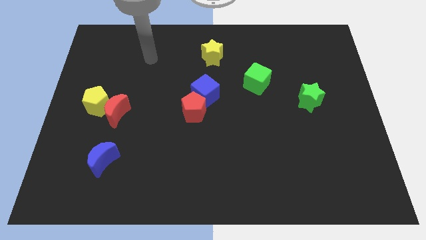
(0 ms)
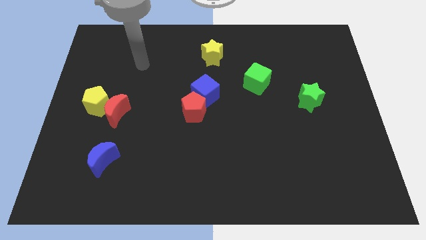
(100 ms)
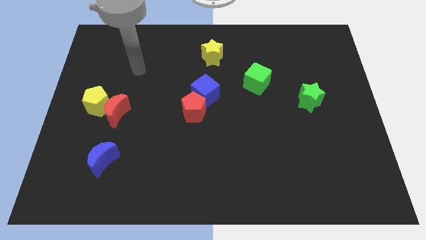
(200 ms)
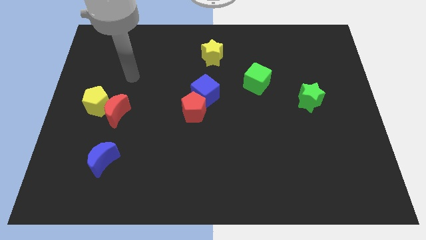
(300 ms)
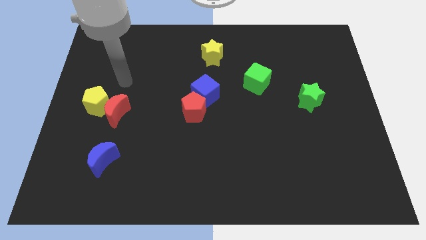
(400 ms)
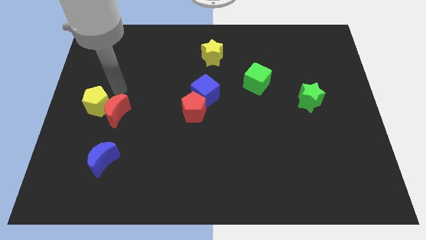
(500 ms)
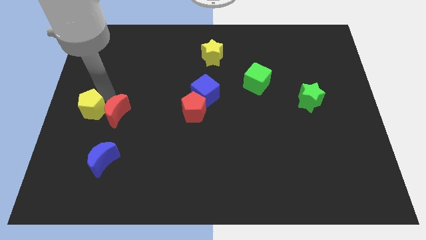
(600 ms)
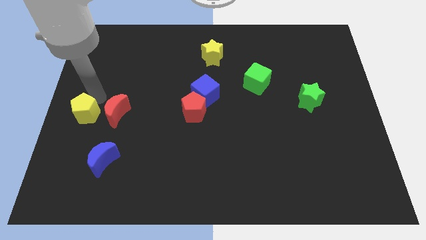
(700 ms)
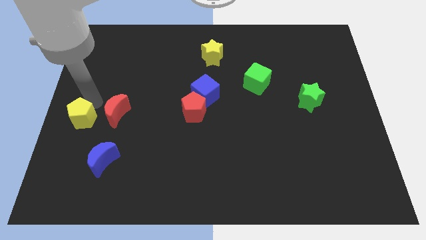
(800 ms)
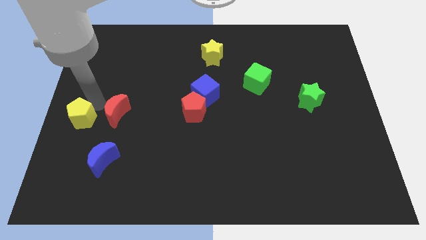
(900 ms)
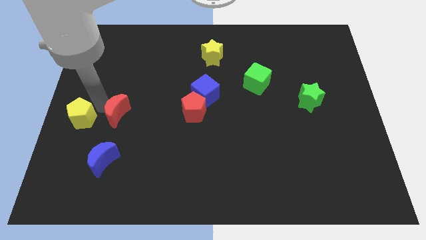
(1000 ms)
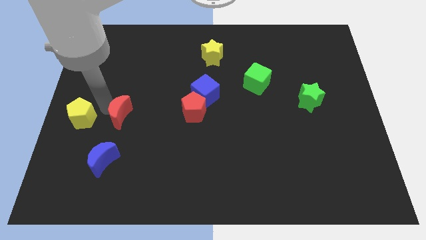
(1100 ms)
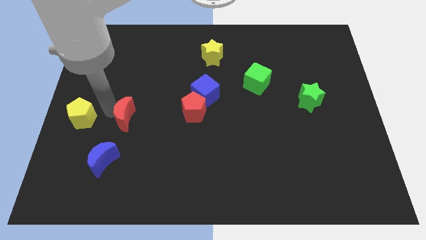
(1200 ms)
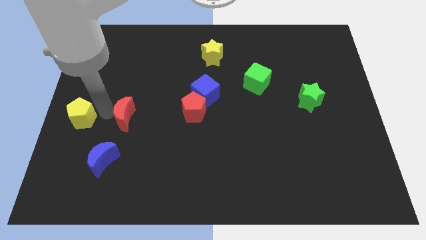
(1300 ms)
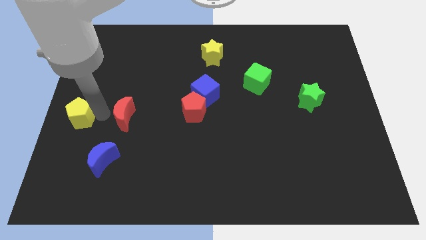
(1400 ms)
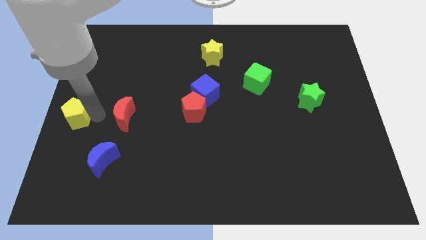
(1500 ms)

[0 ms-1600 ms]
move the red moon away from the yellow pentagon

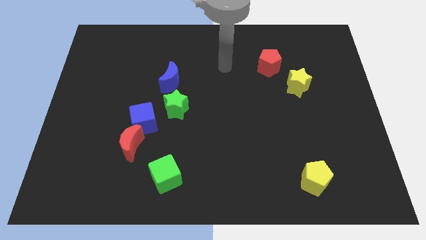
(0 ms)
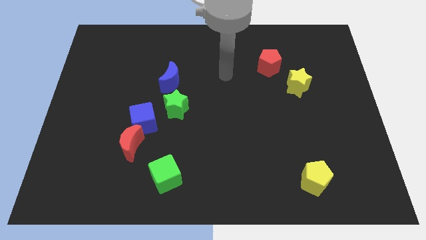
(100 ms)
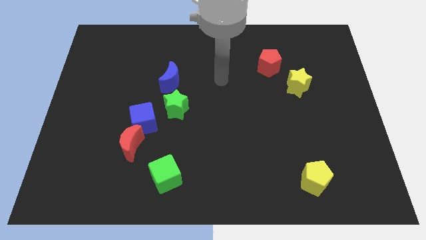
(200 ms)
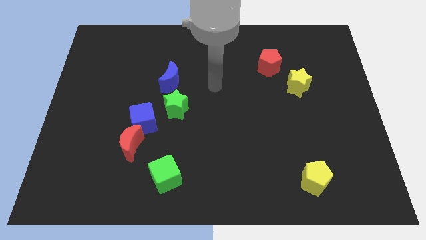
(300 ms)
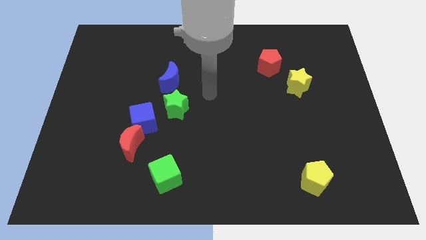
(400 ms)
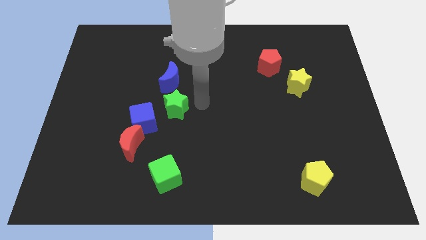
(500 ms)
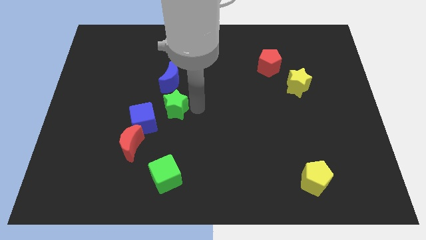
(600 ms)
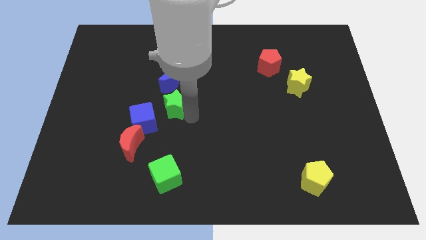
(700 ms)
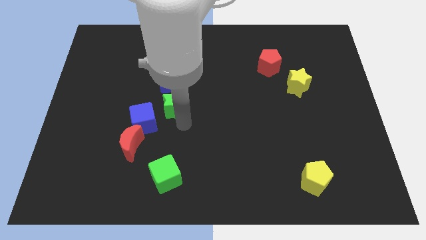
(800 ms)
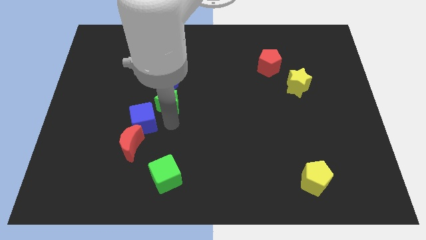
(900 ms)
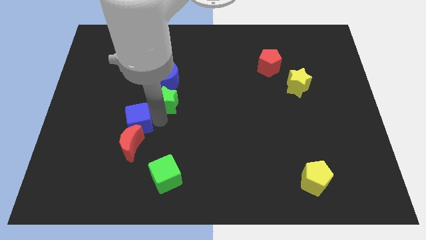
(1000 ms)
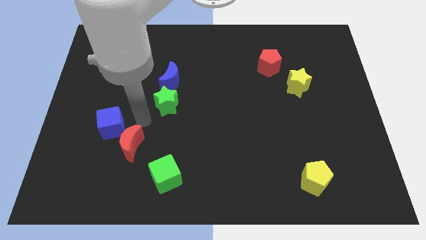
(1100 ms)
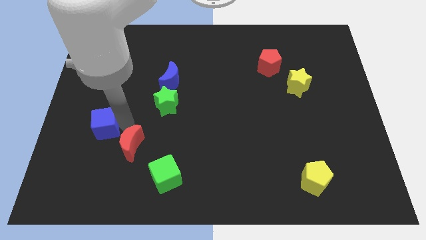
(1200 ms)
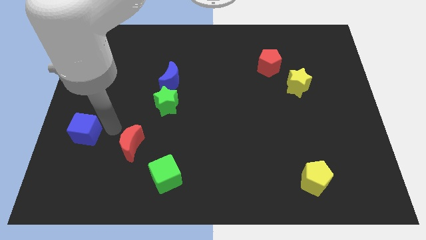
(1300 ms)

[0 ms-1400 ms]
move the red moon away from the blue cube

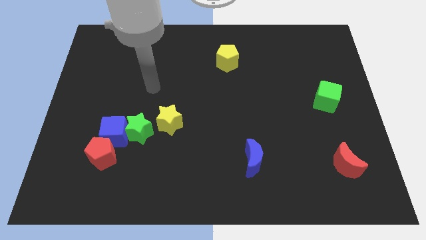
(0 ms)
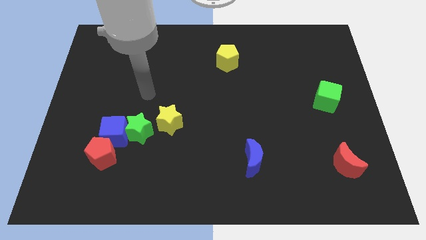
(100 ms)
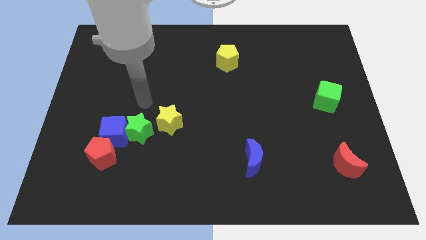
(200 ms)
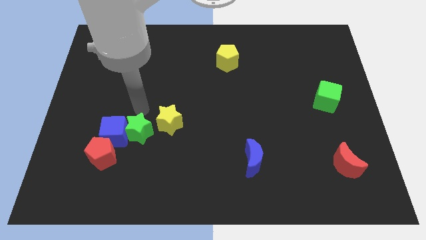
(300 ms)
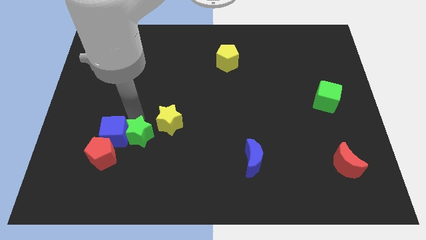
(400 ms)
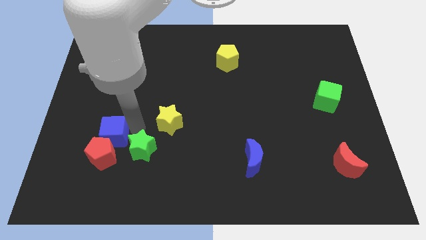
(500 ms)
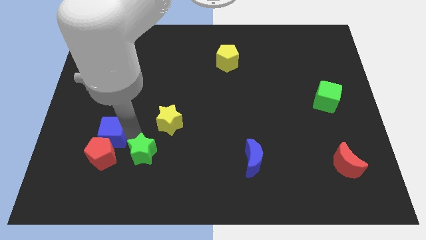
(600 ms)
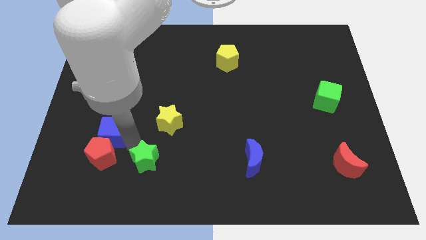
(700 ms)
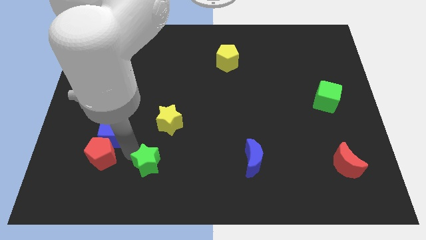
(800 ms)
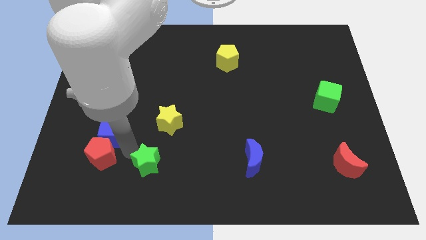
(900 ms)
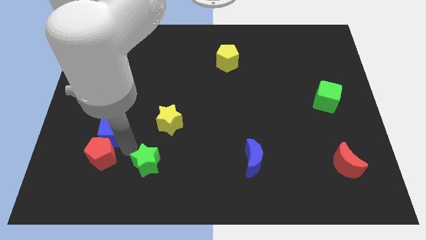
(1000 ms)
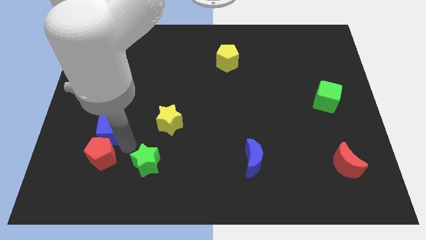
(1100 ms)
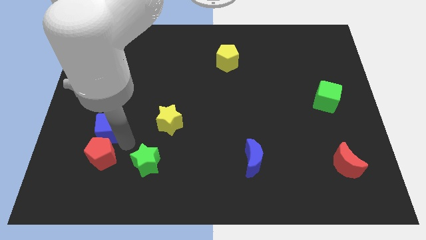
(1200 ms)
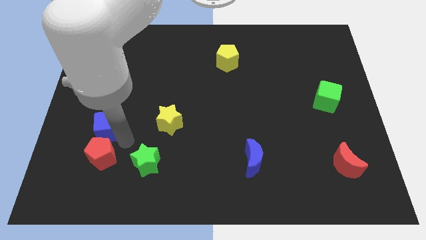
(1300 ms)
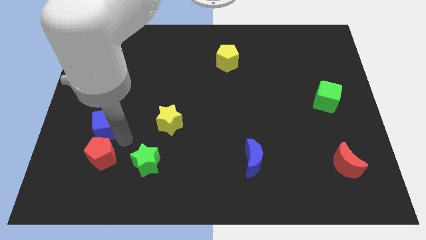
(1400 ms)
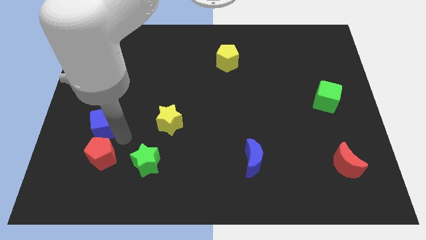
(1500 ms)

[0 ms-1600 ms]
pull the blue cube apart from the green star and red pentagon

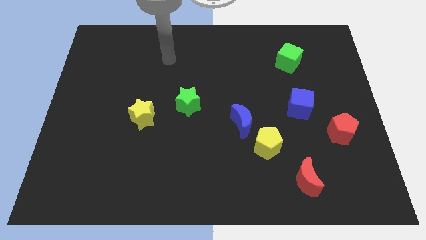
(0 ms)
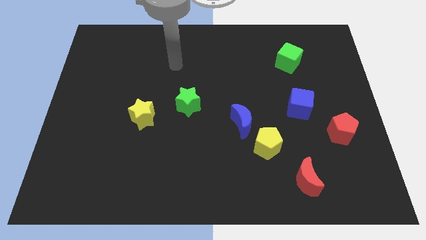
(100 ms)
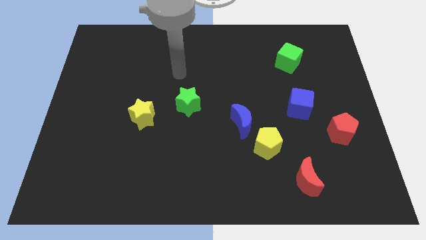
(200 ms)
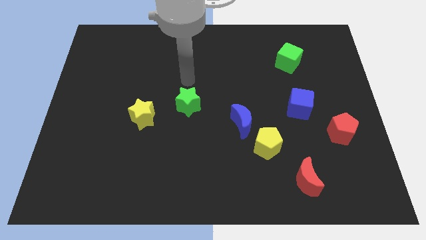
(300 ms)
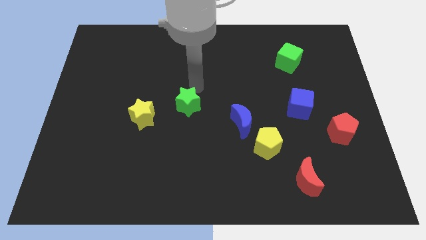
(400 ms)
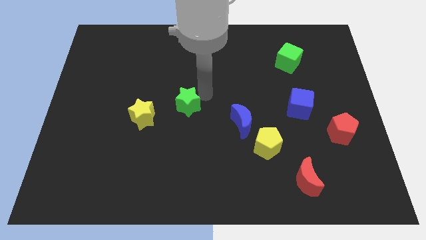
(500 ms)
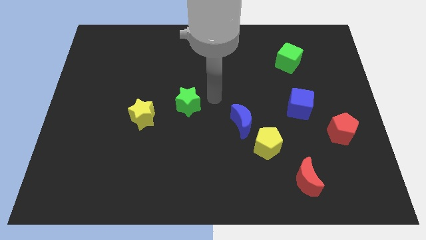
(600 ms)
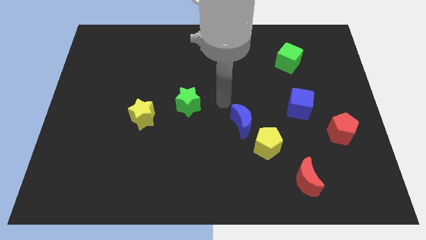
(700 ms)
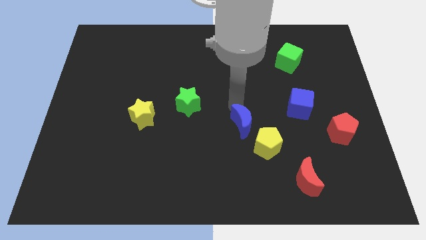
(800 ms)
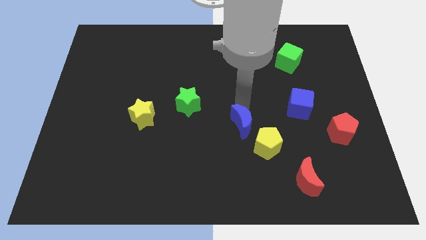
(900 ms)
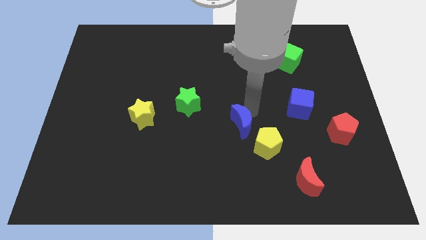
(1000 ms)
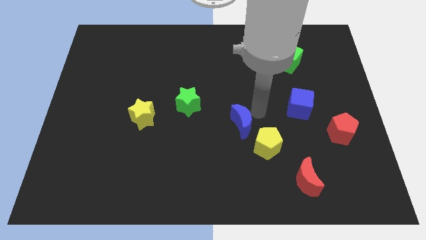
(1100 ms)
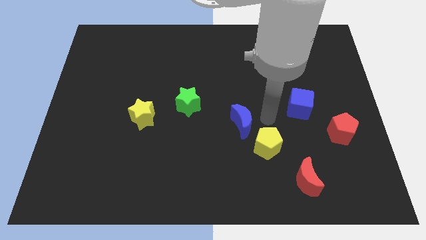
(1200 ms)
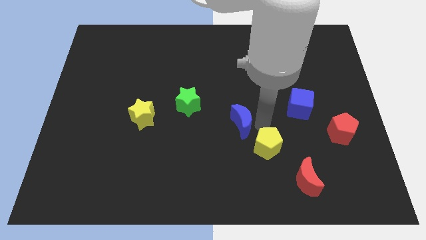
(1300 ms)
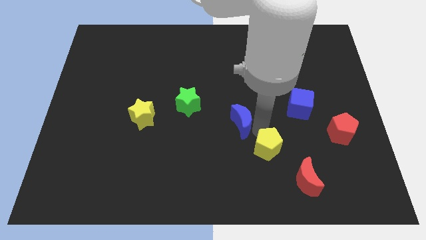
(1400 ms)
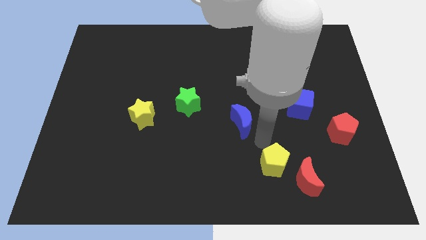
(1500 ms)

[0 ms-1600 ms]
separate the blue moon from the yellow pentagon

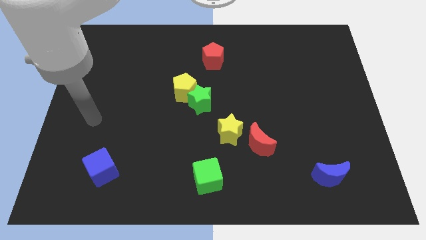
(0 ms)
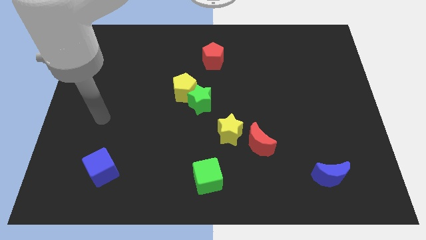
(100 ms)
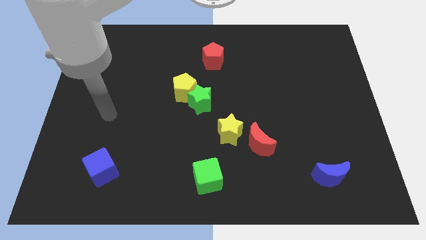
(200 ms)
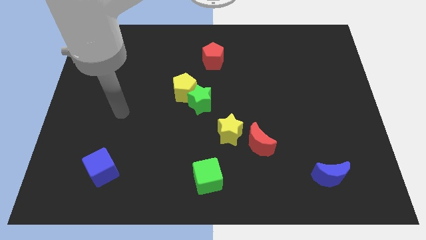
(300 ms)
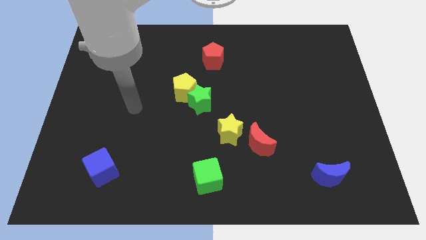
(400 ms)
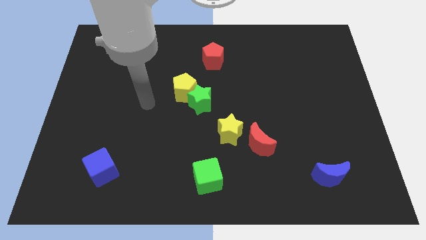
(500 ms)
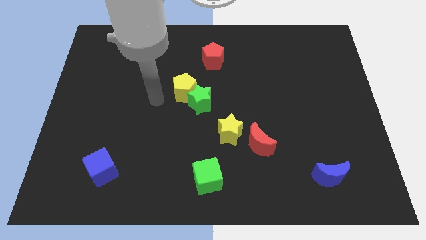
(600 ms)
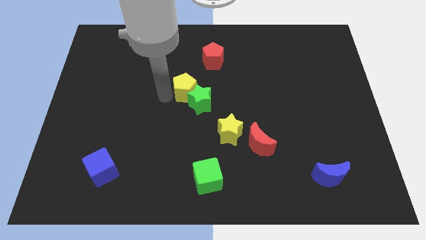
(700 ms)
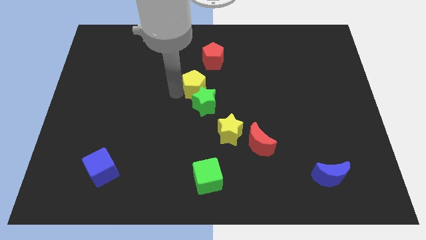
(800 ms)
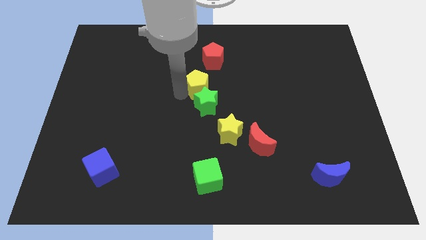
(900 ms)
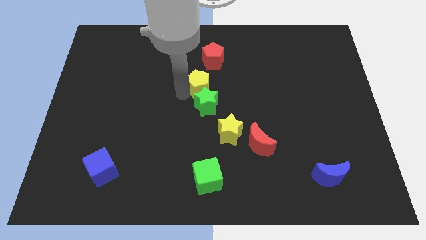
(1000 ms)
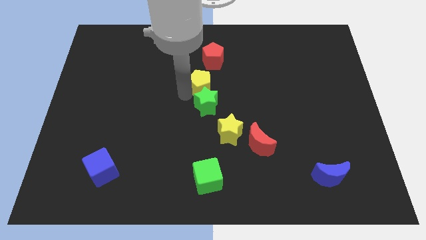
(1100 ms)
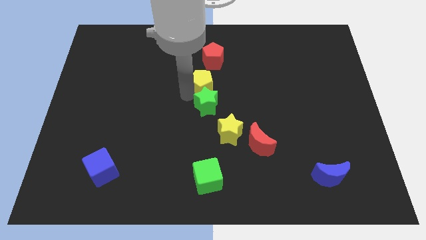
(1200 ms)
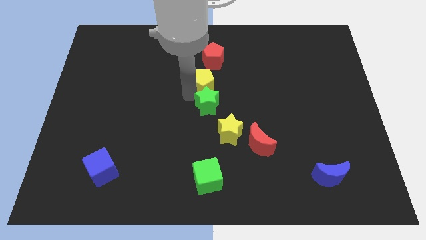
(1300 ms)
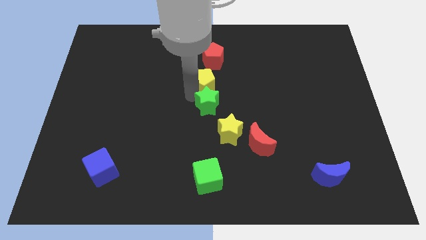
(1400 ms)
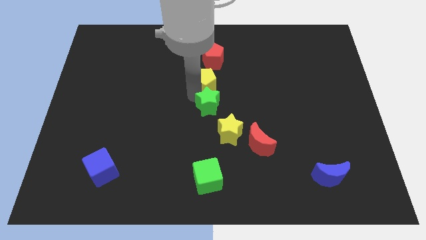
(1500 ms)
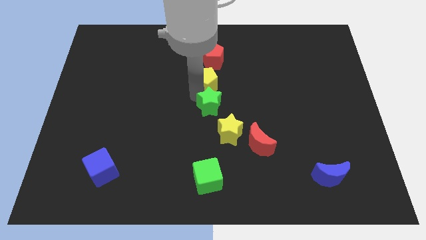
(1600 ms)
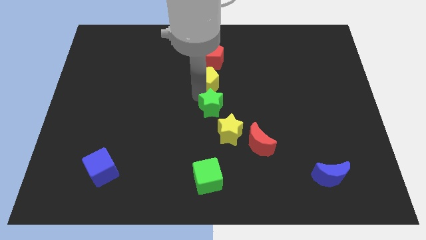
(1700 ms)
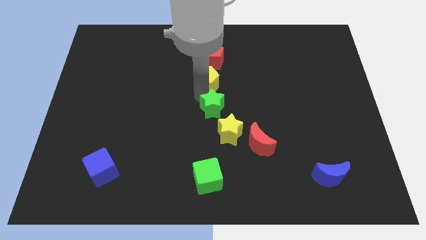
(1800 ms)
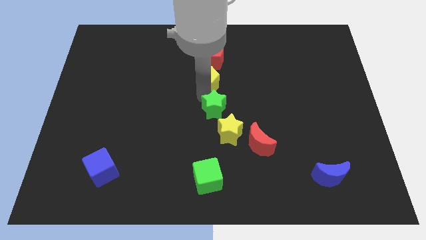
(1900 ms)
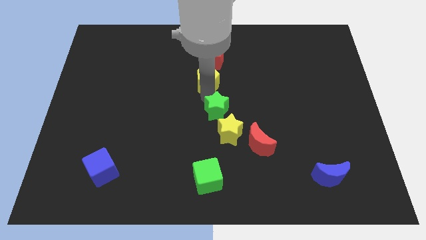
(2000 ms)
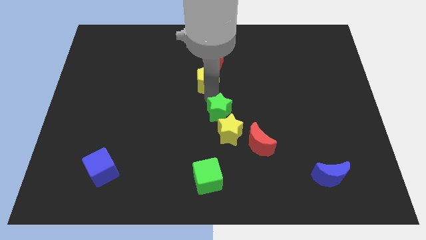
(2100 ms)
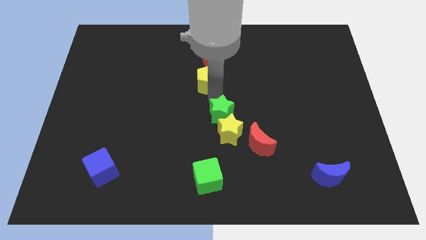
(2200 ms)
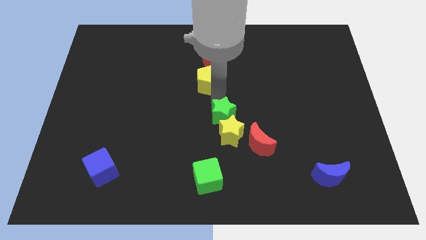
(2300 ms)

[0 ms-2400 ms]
separate the green star from the yellow pentagon

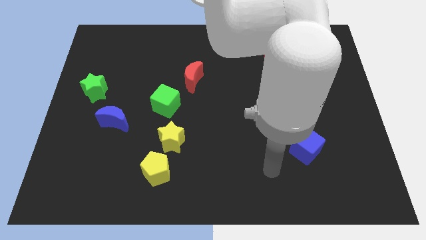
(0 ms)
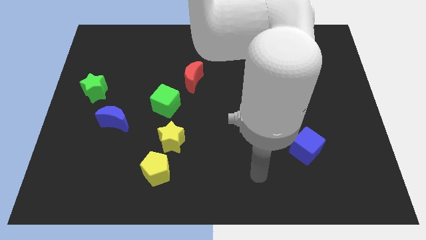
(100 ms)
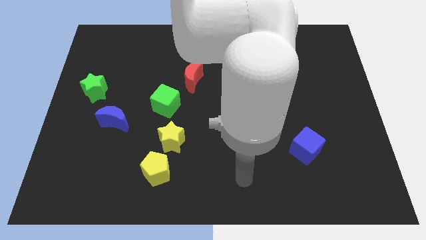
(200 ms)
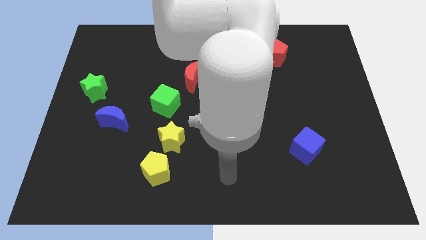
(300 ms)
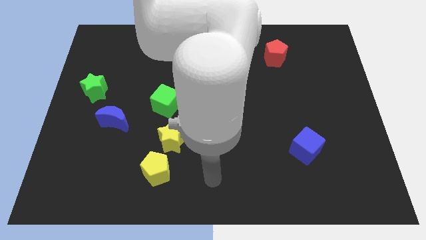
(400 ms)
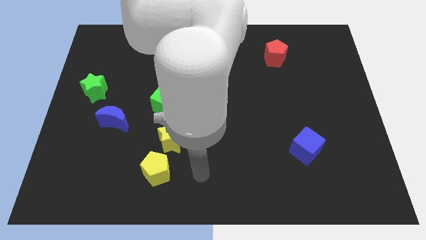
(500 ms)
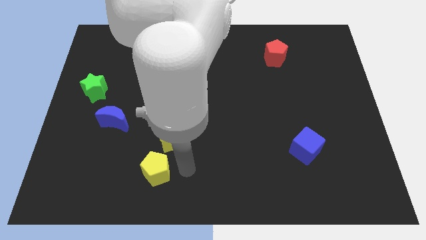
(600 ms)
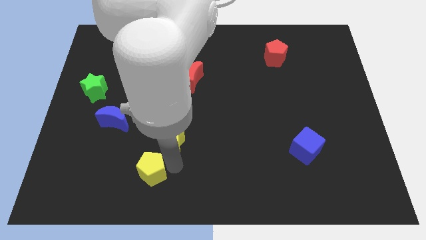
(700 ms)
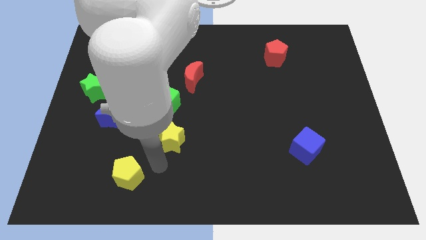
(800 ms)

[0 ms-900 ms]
pull the yellow star apart from the yellow pentagon

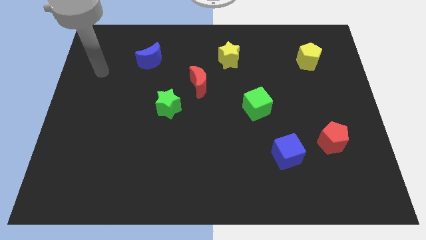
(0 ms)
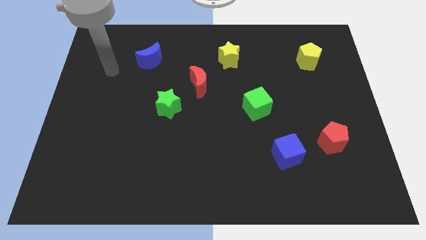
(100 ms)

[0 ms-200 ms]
pull the red moon apart from the green star
